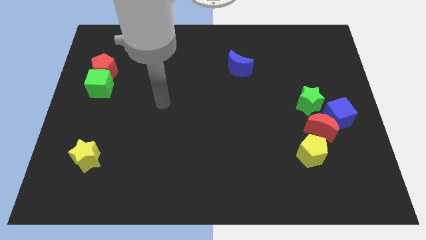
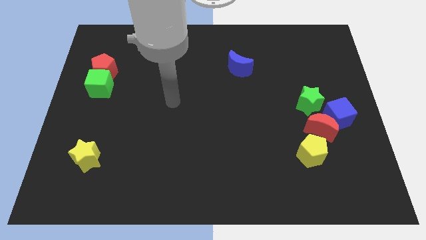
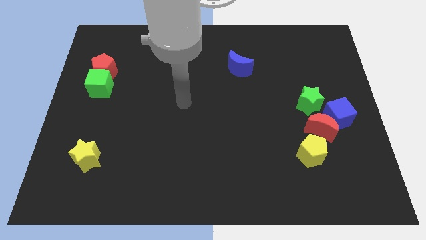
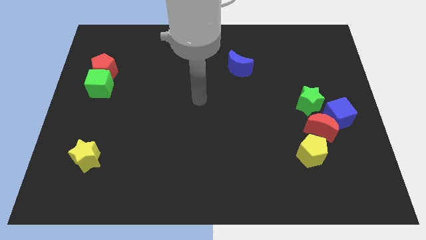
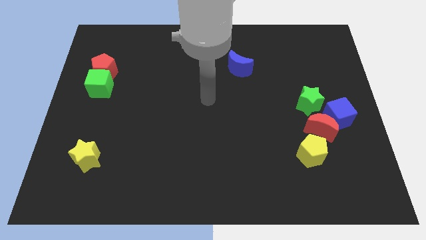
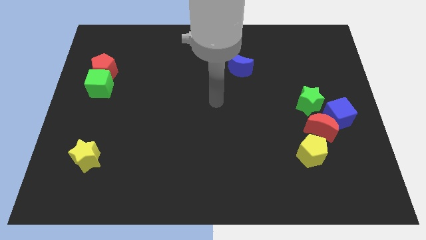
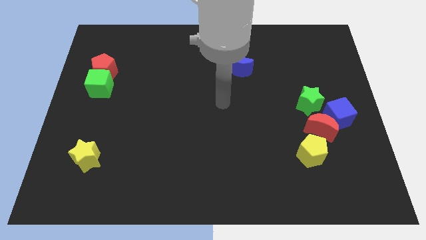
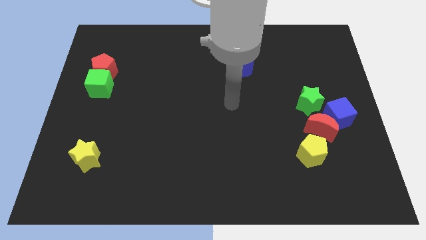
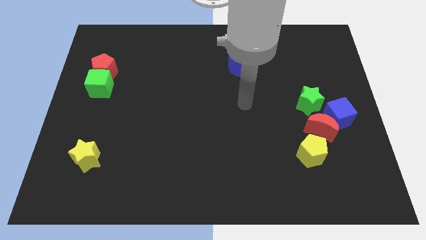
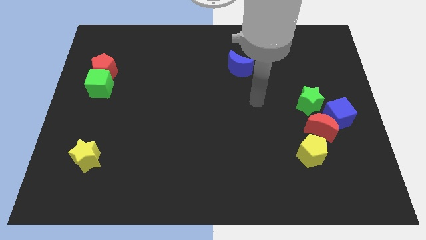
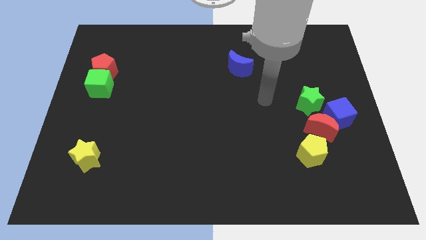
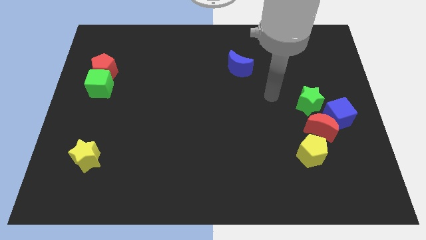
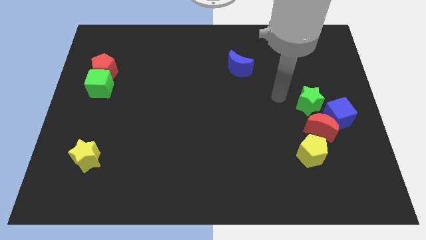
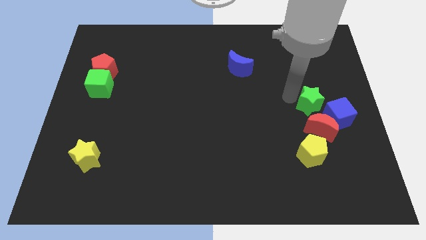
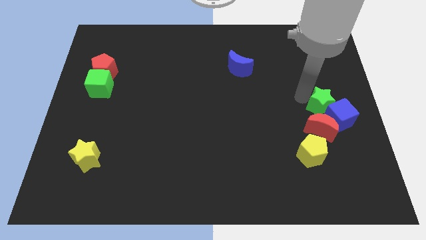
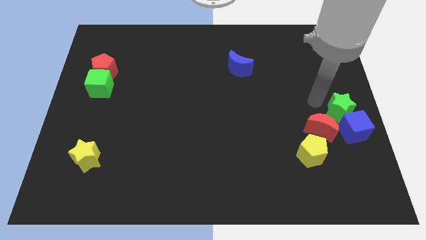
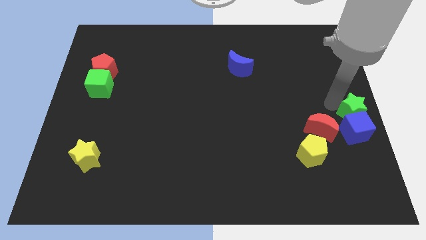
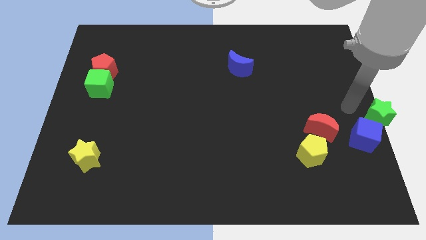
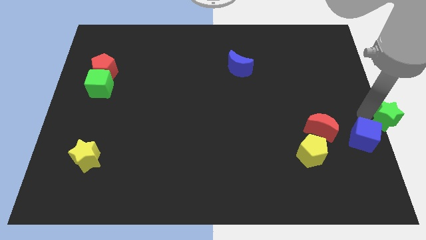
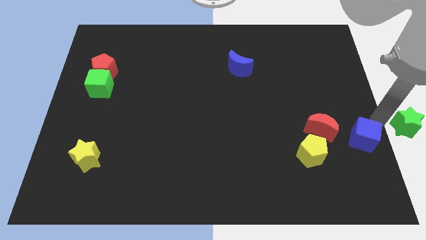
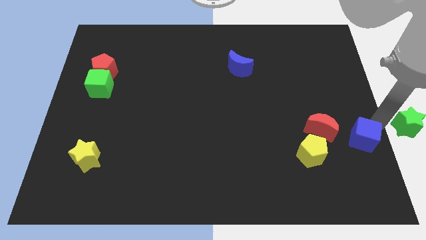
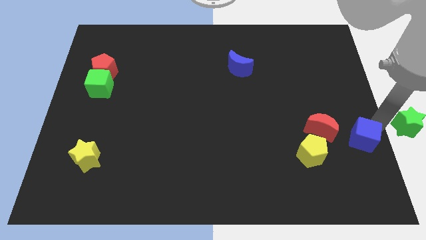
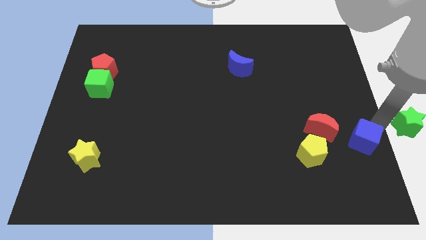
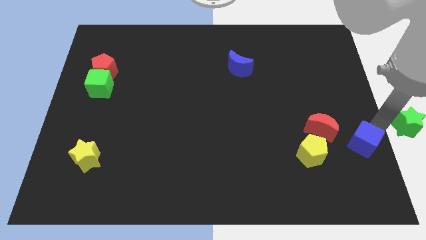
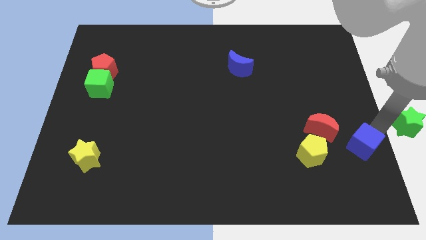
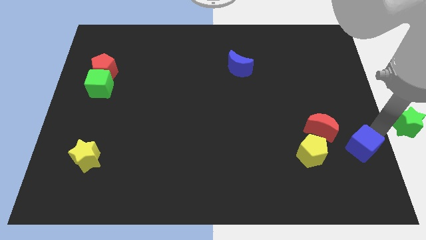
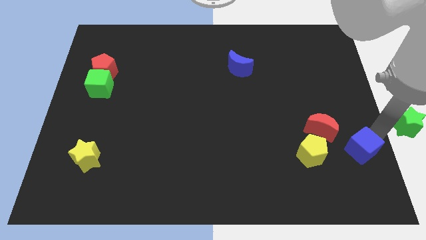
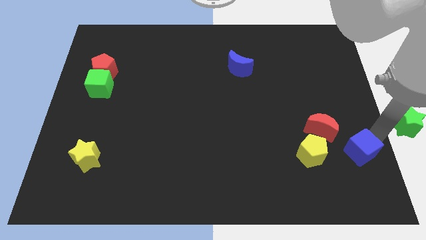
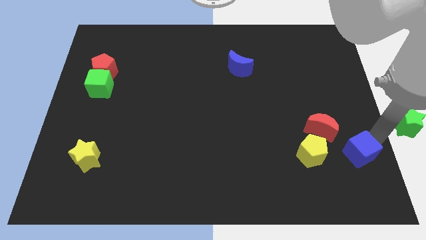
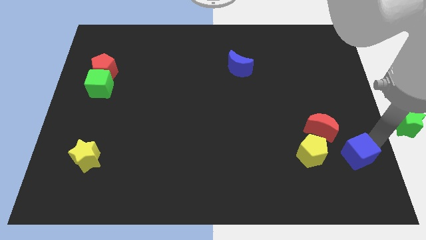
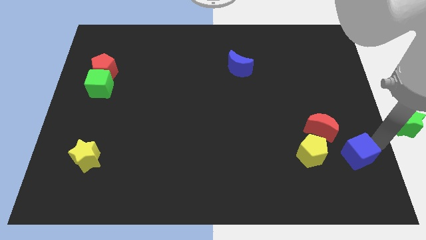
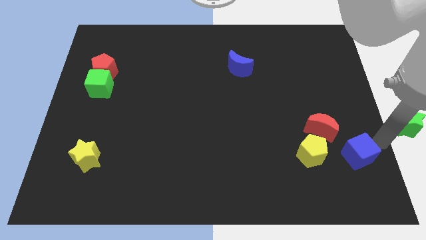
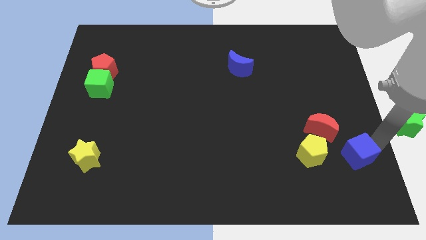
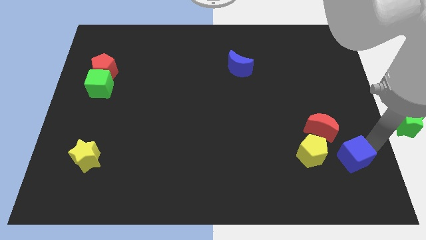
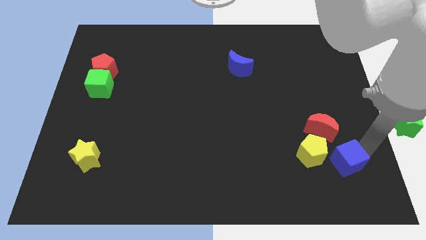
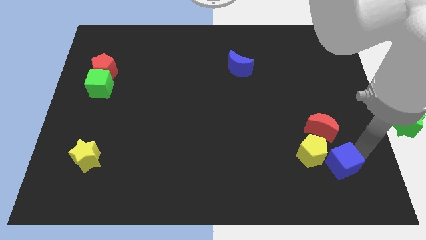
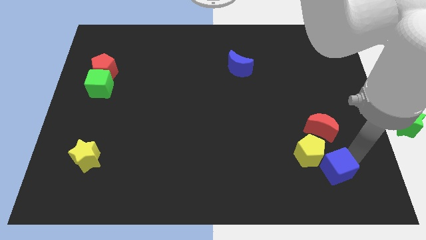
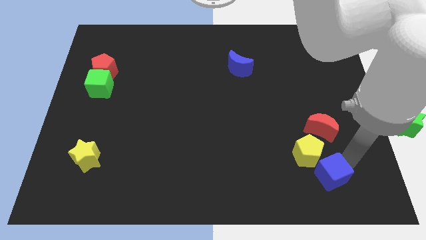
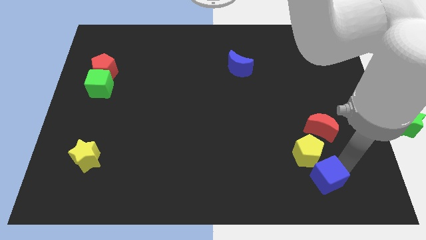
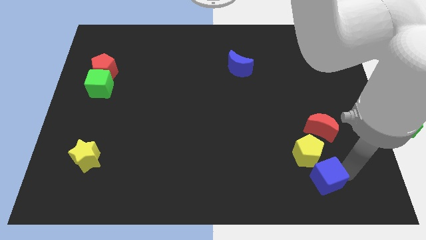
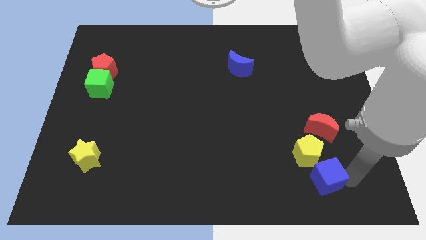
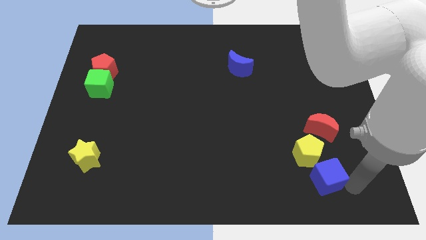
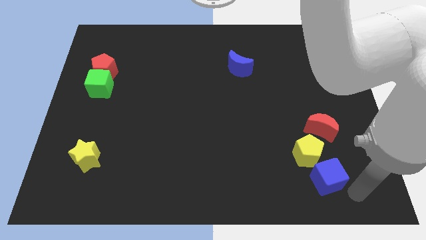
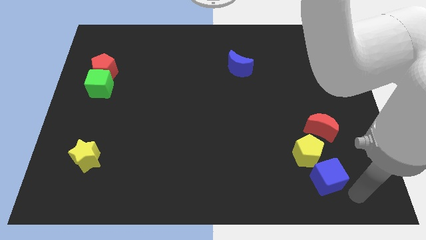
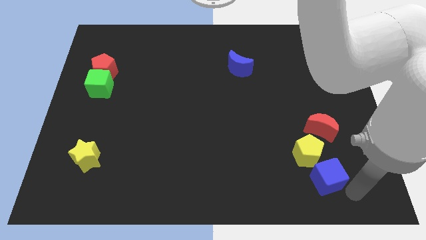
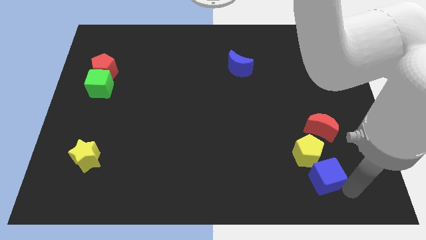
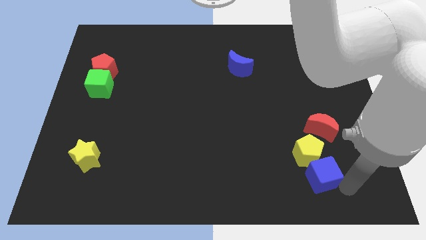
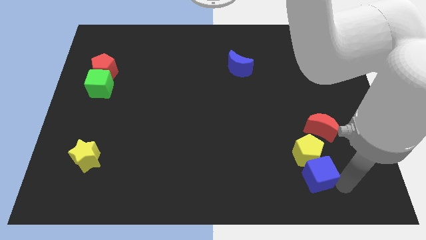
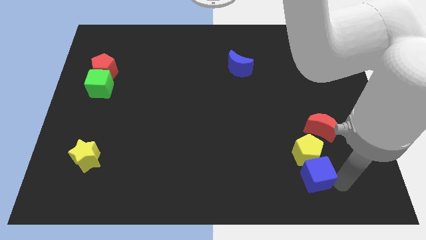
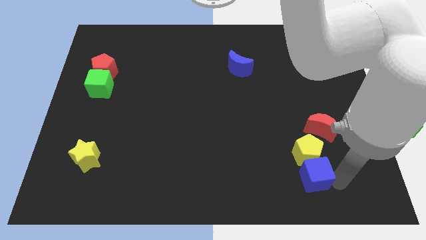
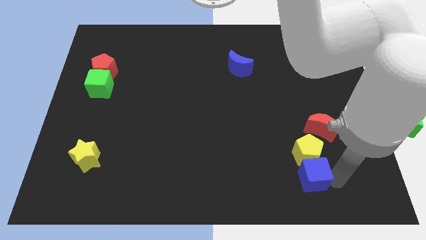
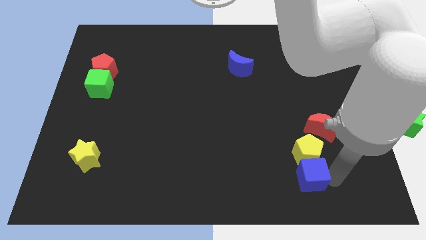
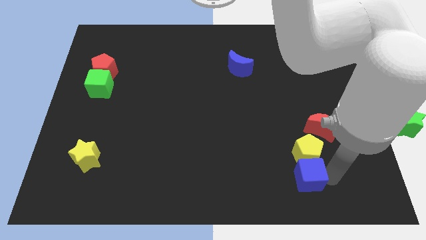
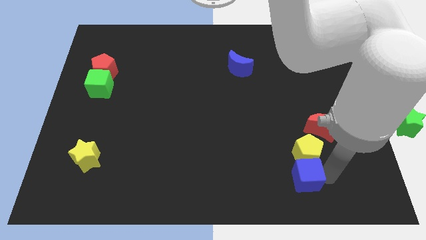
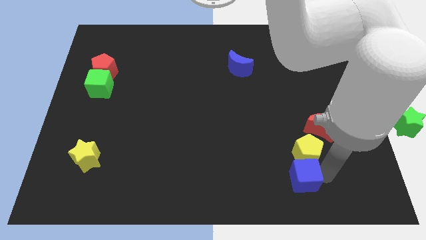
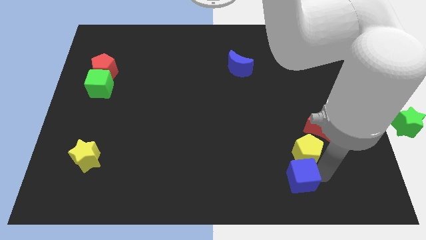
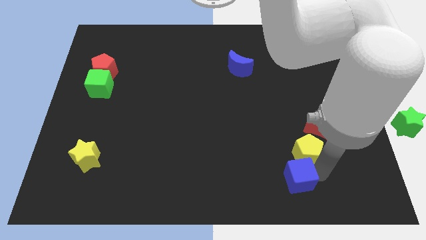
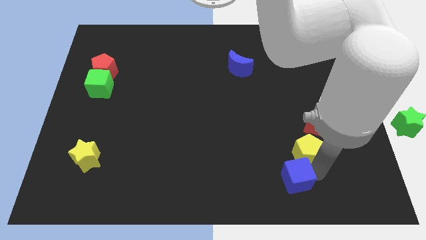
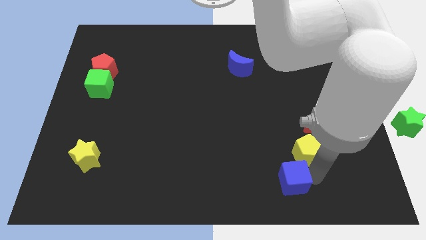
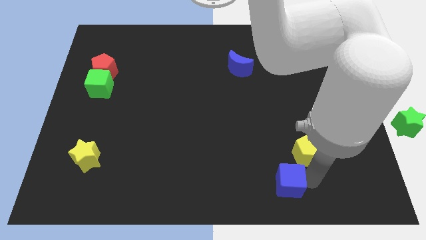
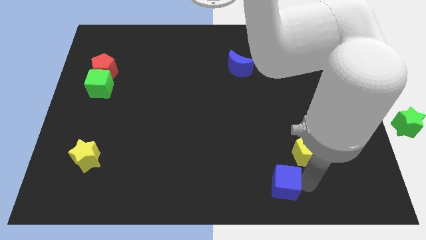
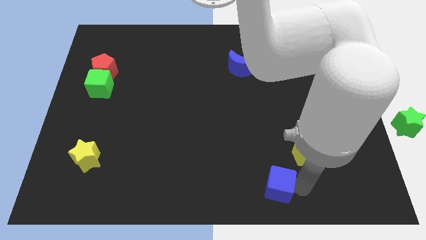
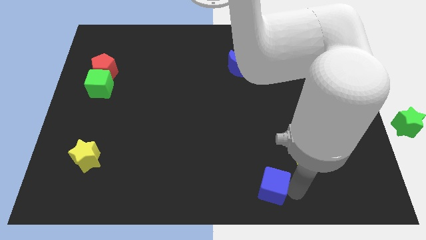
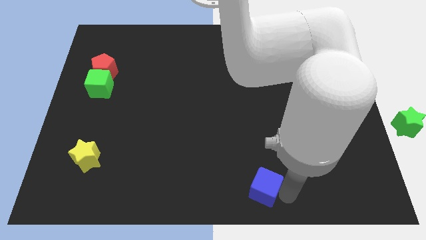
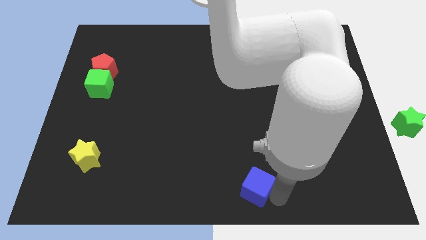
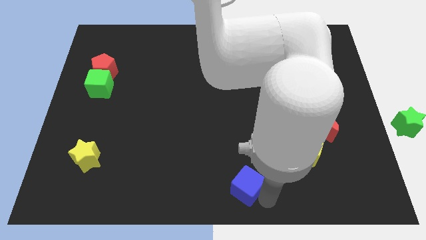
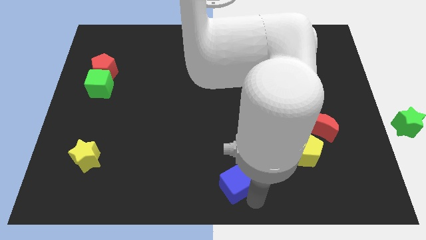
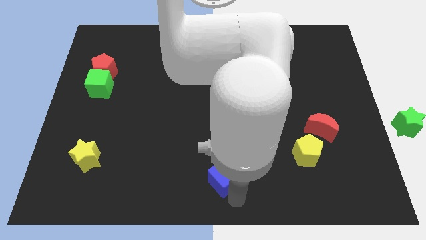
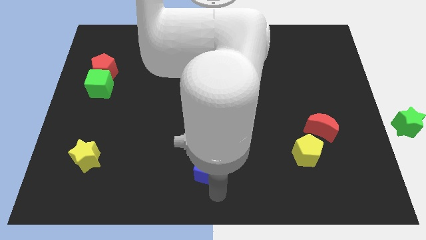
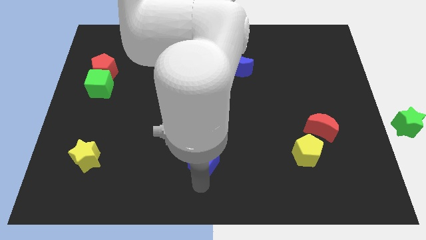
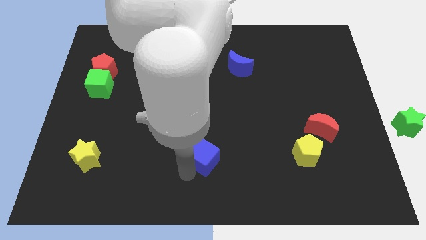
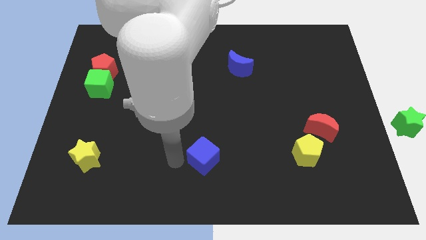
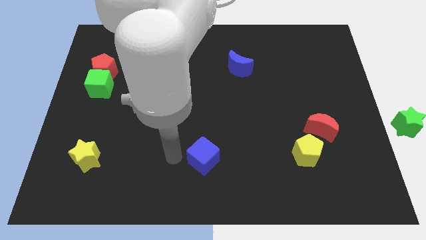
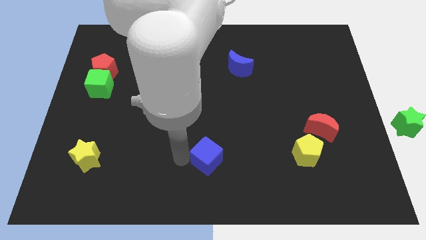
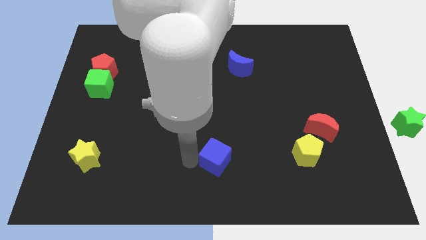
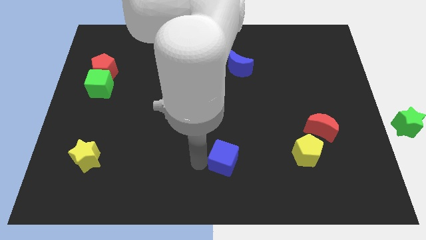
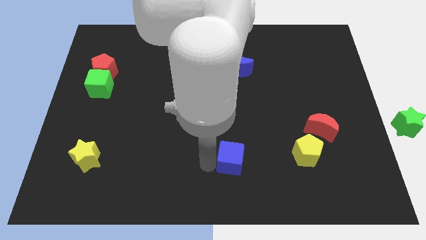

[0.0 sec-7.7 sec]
move the blue cube to the left slightly

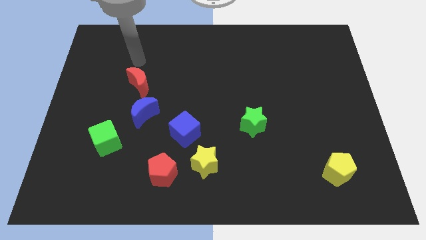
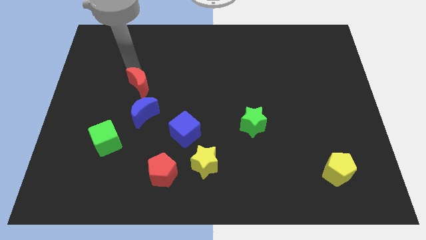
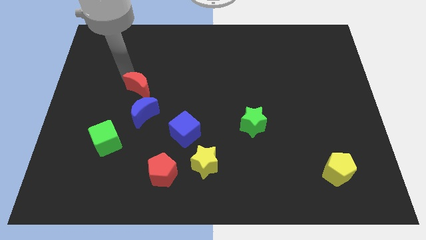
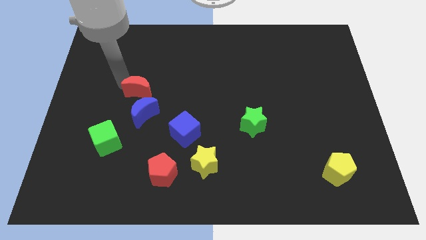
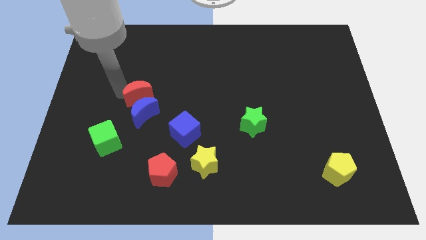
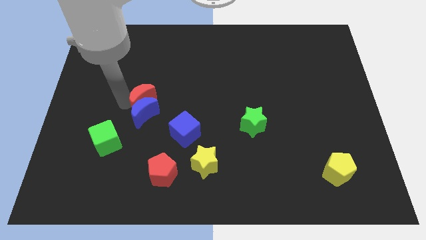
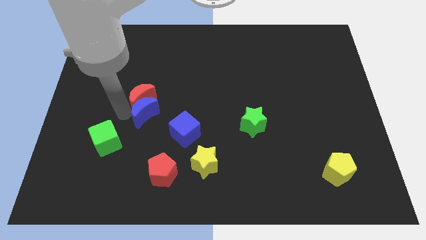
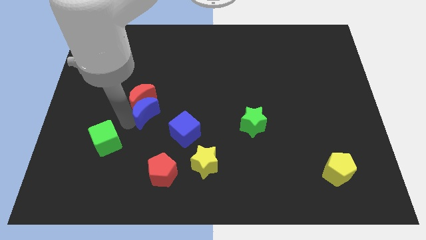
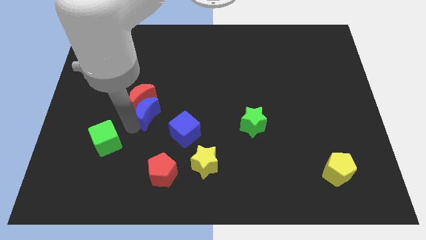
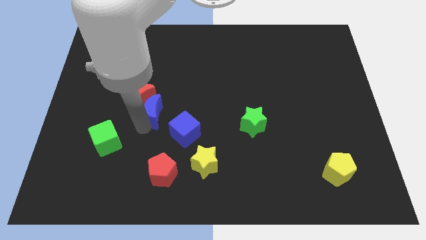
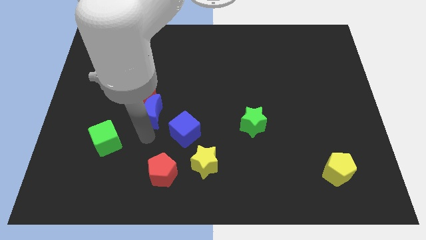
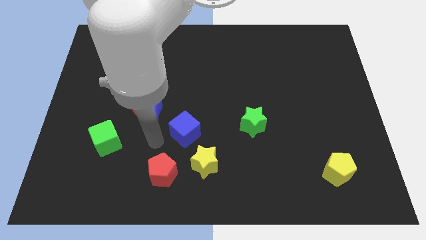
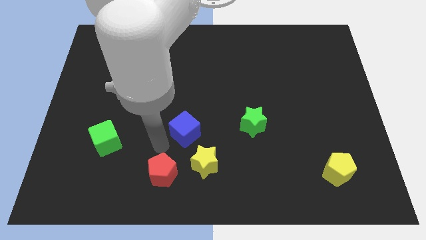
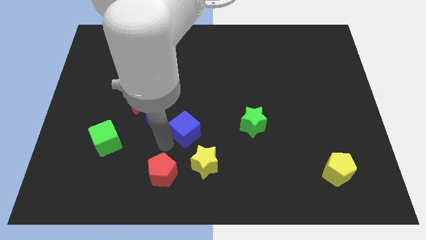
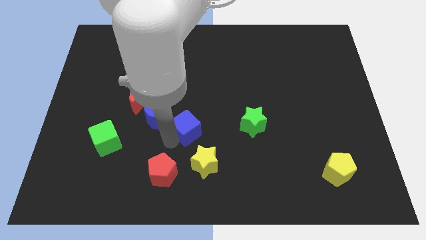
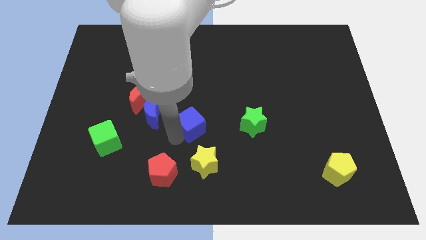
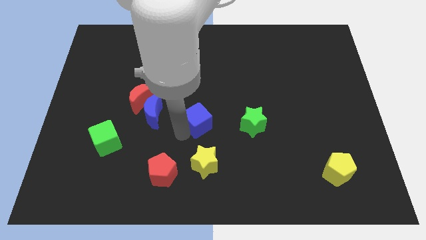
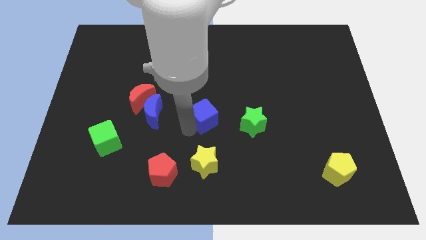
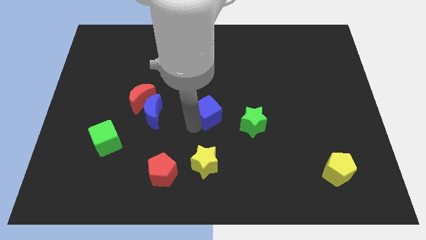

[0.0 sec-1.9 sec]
slightly push the blue cube diagonally up and to the right
